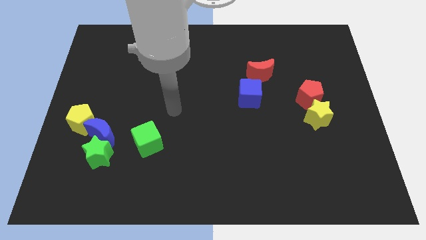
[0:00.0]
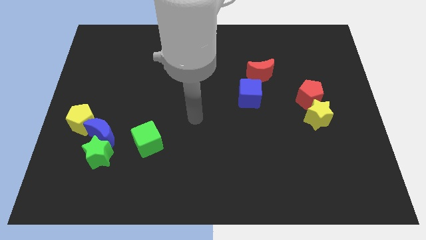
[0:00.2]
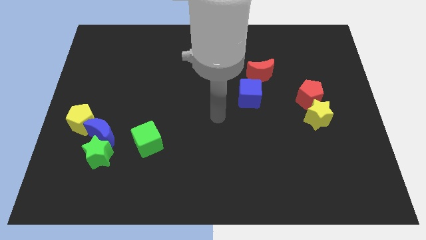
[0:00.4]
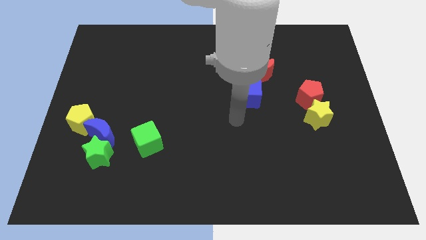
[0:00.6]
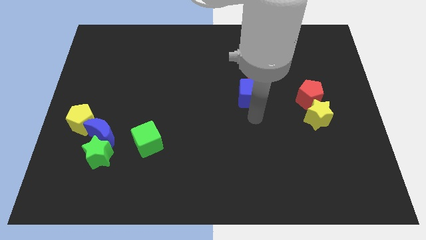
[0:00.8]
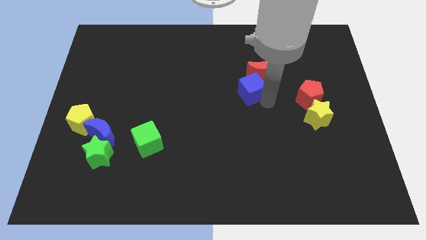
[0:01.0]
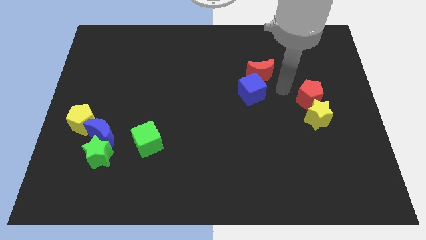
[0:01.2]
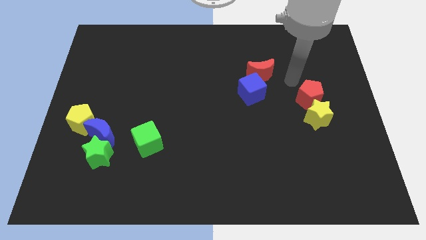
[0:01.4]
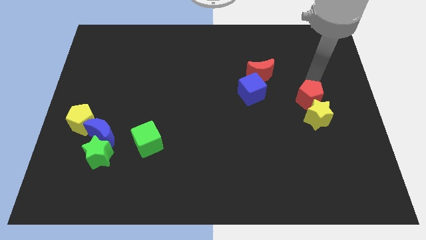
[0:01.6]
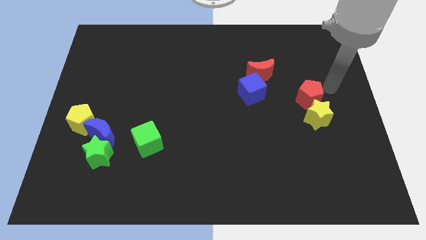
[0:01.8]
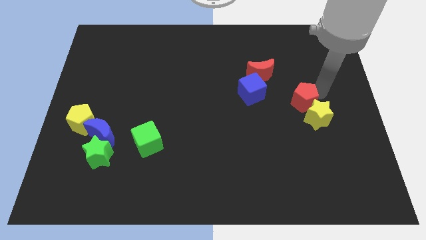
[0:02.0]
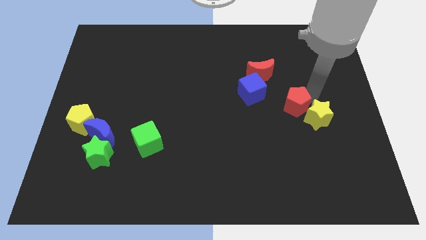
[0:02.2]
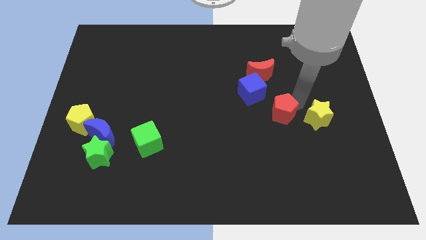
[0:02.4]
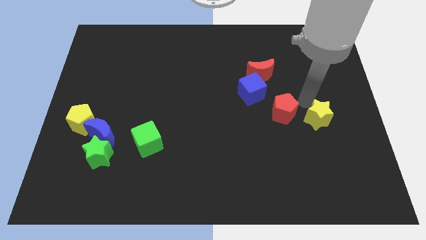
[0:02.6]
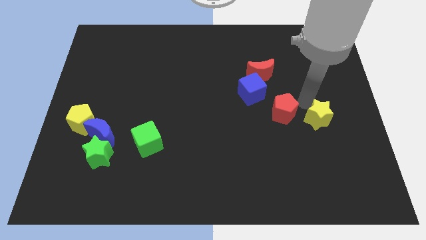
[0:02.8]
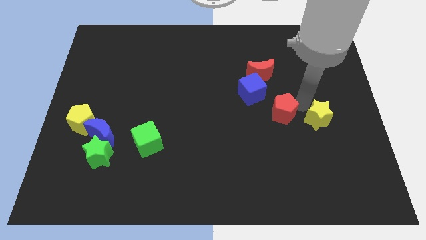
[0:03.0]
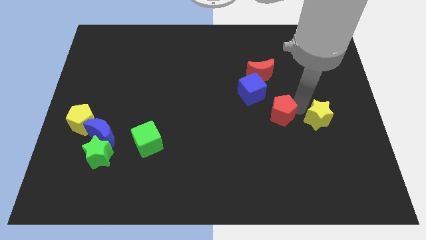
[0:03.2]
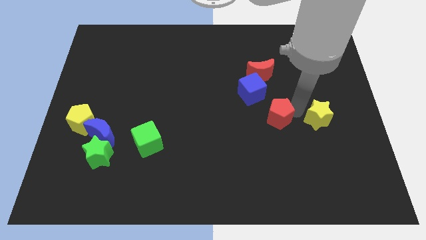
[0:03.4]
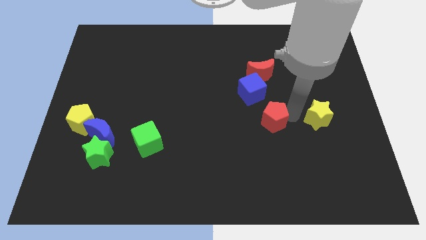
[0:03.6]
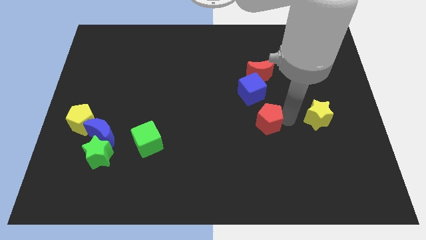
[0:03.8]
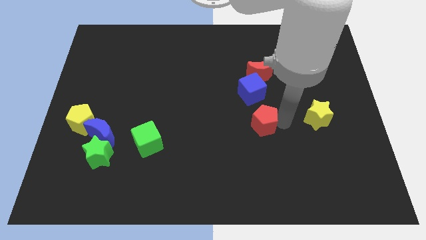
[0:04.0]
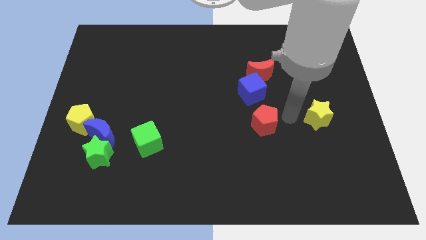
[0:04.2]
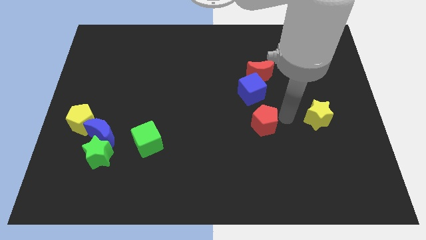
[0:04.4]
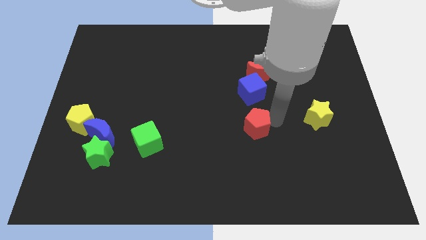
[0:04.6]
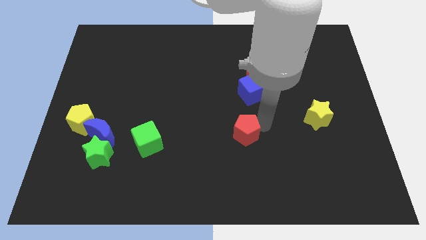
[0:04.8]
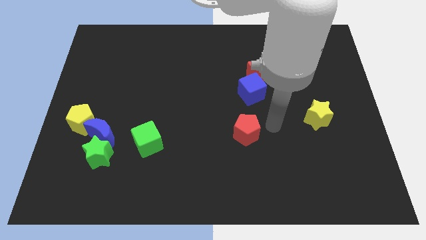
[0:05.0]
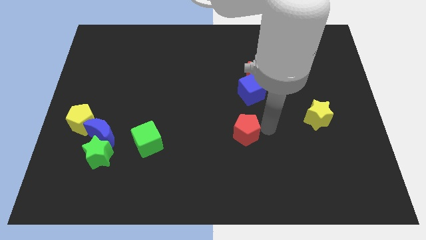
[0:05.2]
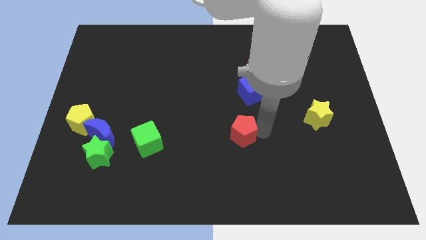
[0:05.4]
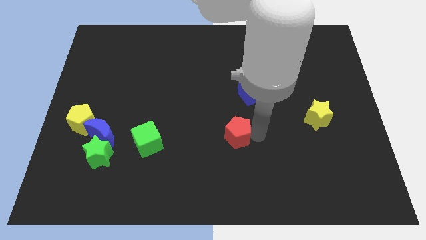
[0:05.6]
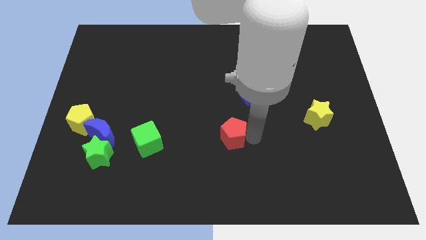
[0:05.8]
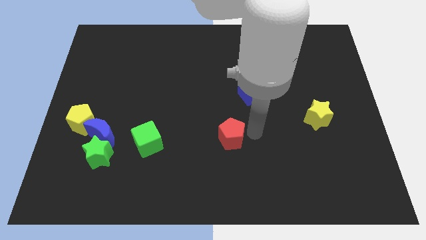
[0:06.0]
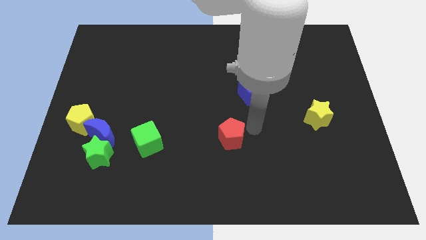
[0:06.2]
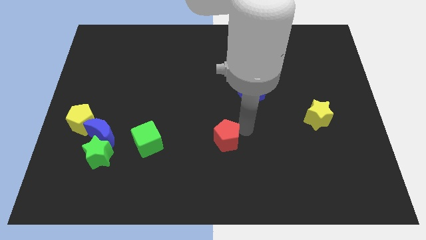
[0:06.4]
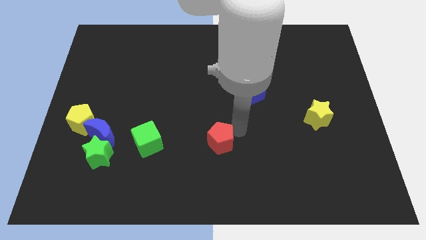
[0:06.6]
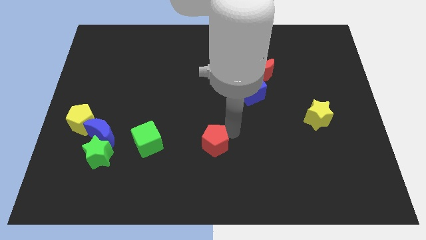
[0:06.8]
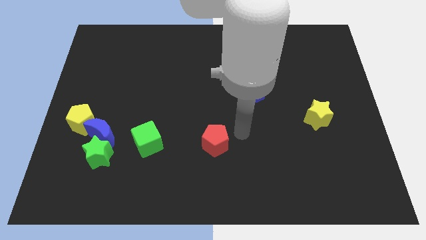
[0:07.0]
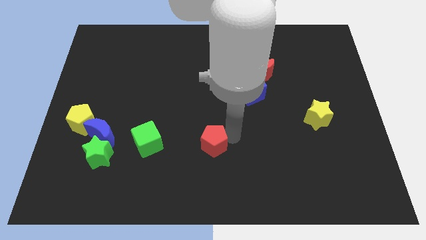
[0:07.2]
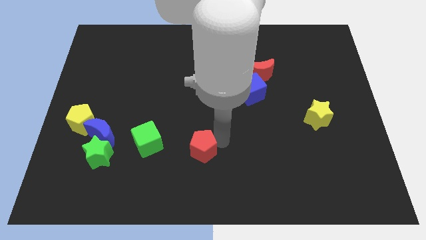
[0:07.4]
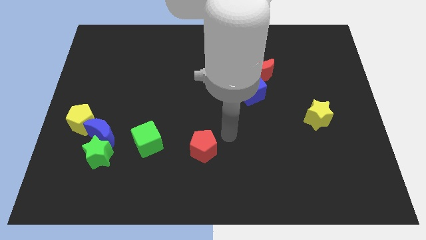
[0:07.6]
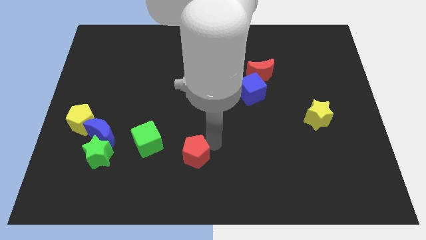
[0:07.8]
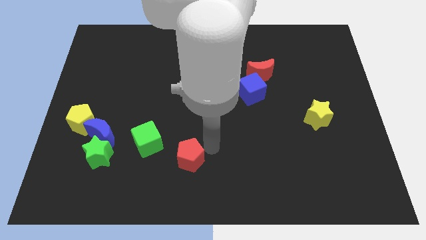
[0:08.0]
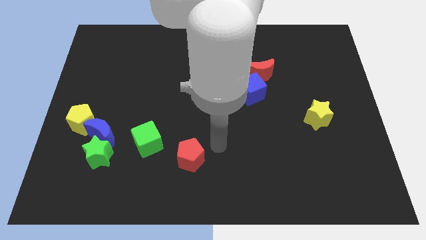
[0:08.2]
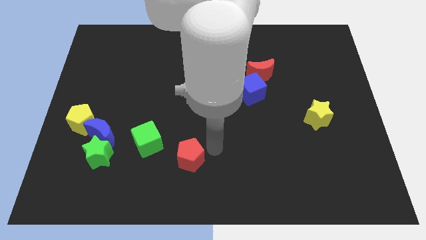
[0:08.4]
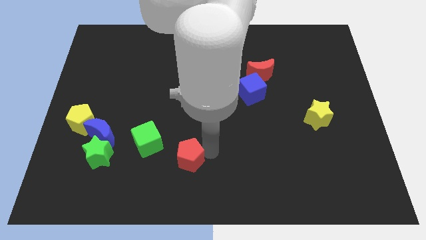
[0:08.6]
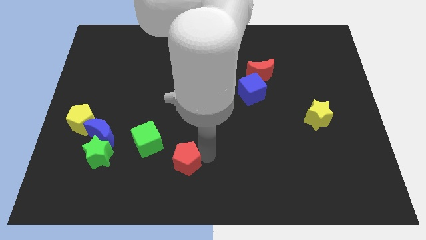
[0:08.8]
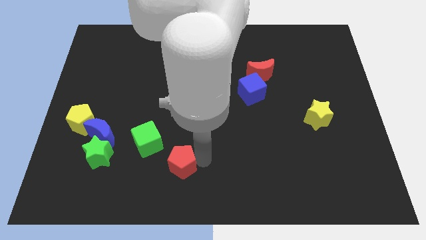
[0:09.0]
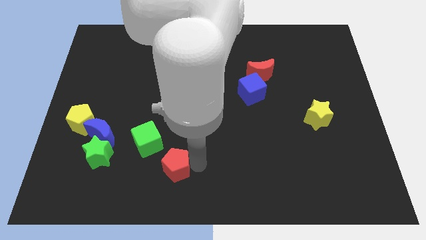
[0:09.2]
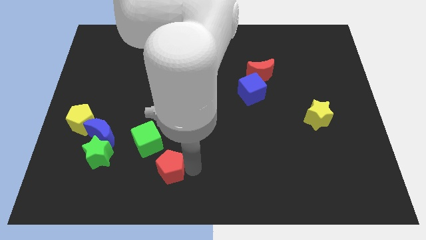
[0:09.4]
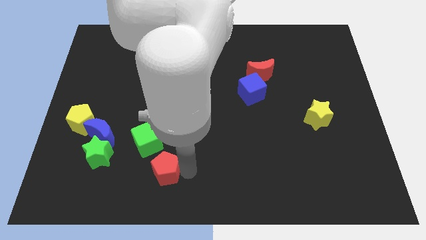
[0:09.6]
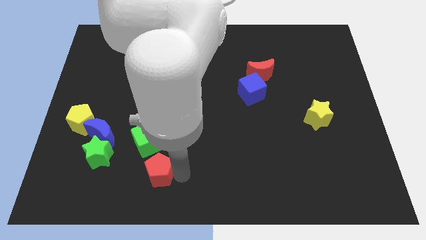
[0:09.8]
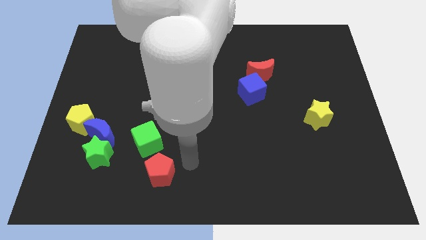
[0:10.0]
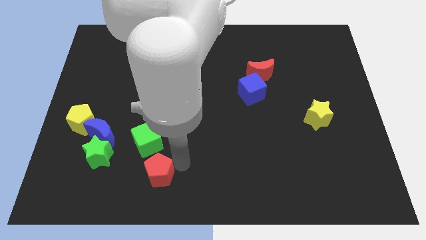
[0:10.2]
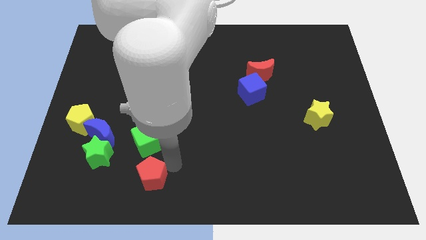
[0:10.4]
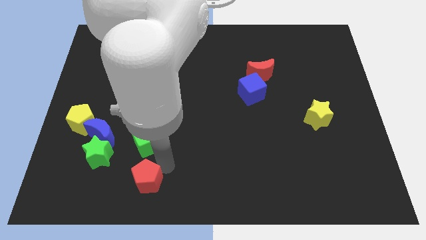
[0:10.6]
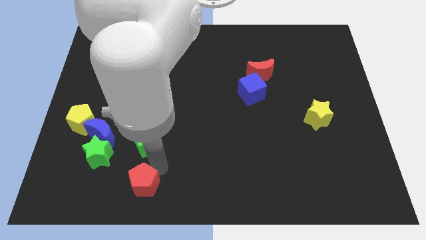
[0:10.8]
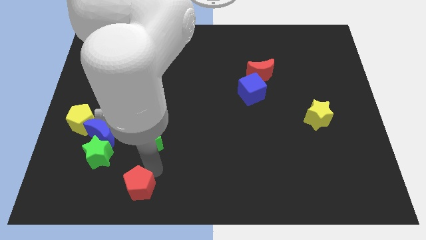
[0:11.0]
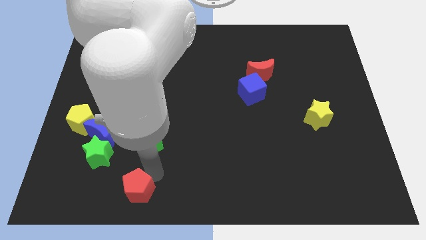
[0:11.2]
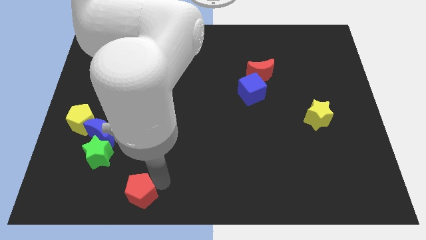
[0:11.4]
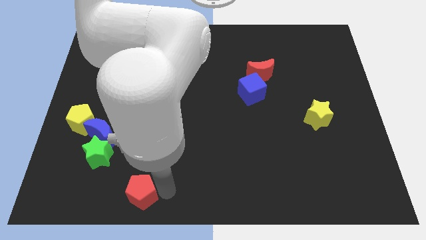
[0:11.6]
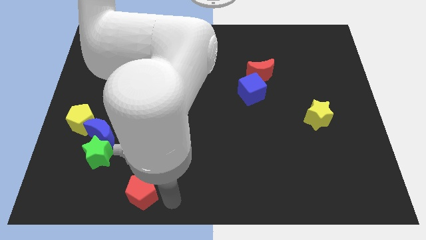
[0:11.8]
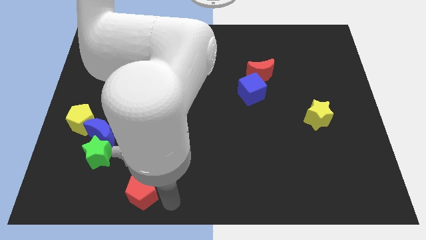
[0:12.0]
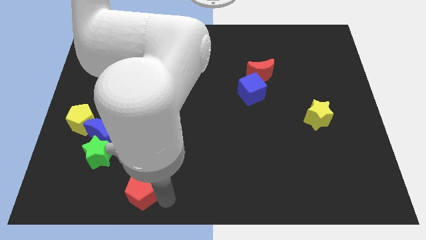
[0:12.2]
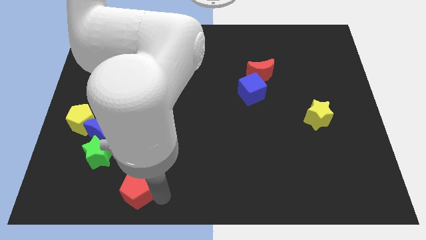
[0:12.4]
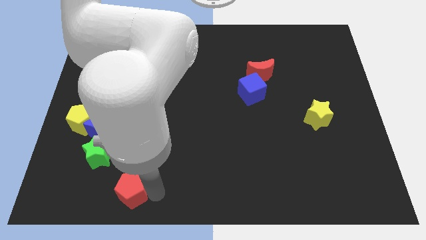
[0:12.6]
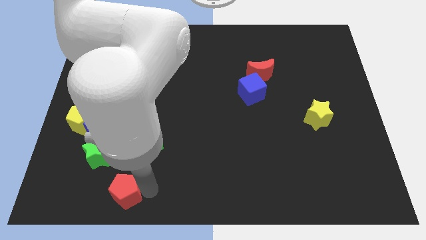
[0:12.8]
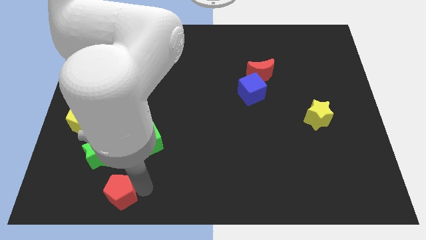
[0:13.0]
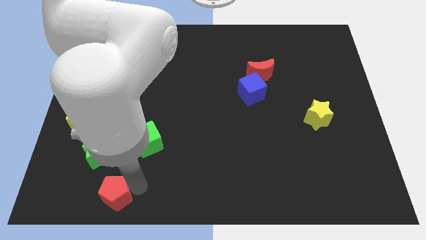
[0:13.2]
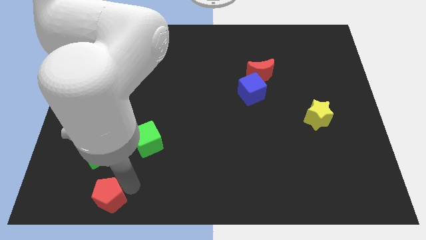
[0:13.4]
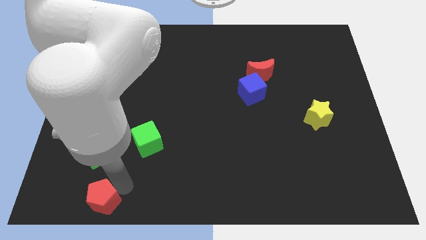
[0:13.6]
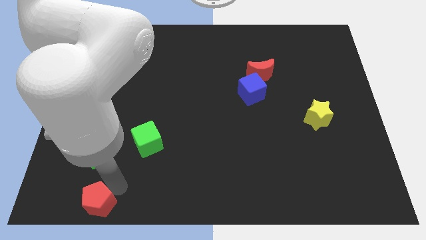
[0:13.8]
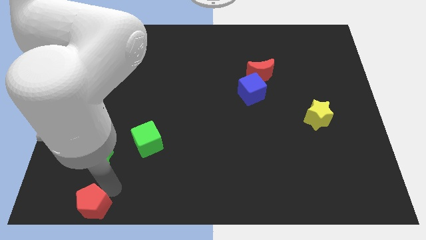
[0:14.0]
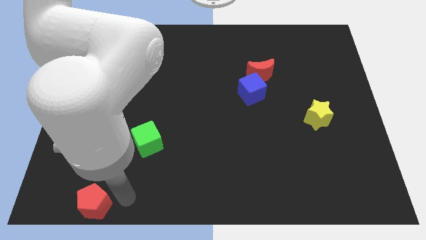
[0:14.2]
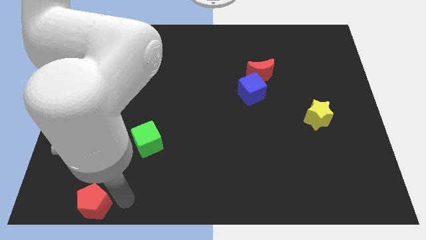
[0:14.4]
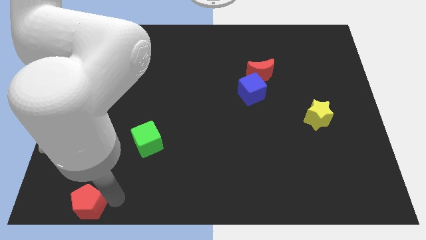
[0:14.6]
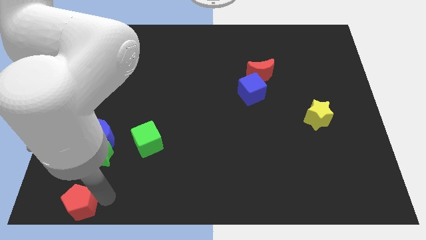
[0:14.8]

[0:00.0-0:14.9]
slide the red pentagon to the bottom left of the board

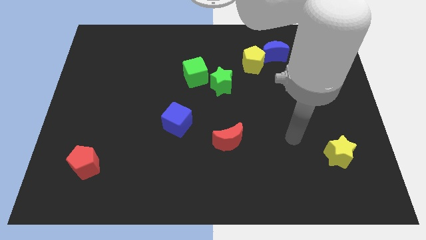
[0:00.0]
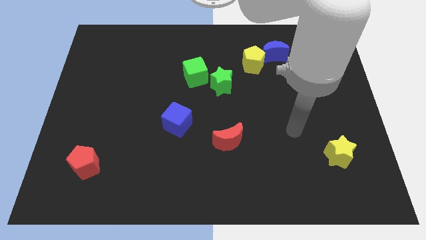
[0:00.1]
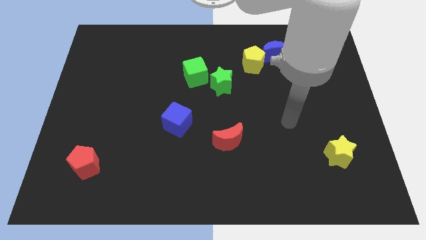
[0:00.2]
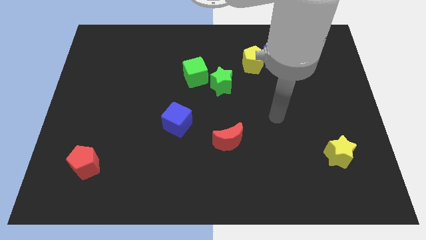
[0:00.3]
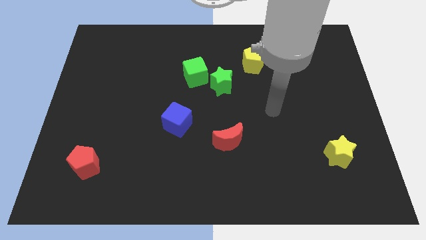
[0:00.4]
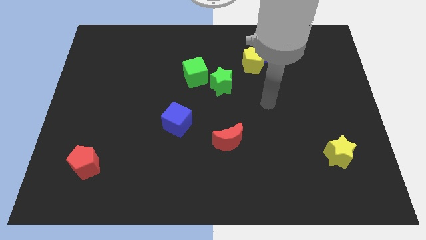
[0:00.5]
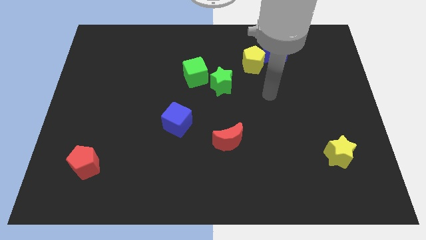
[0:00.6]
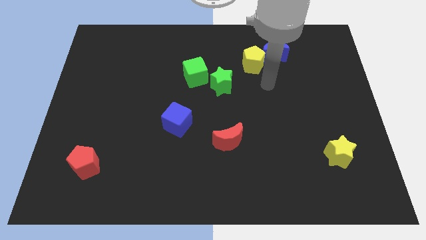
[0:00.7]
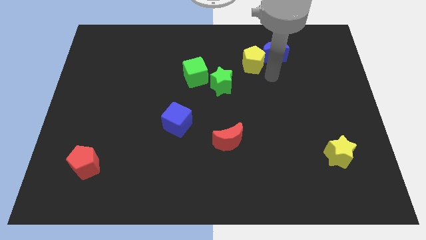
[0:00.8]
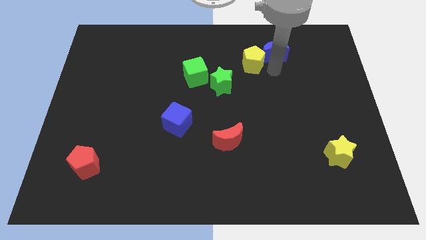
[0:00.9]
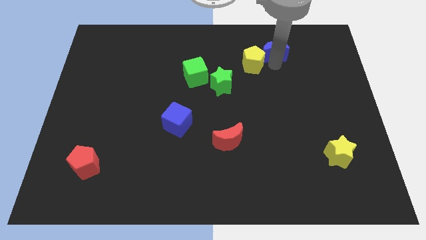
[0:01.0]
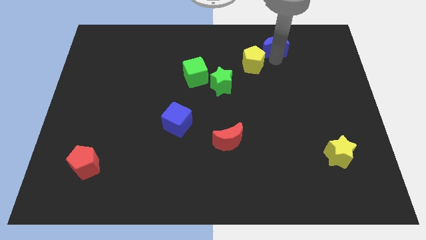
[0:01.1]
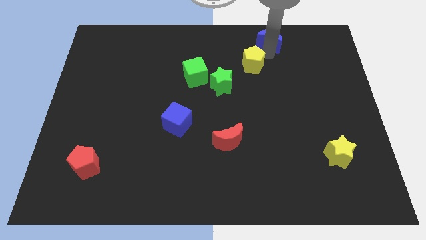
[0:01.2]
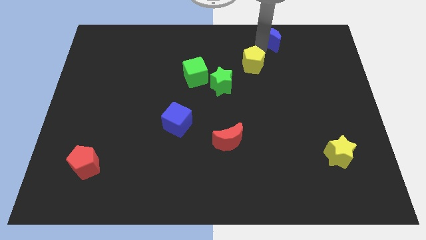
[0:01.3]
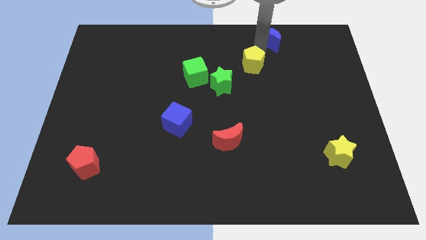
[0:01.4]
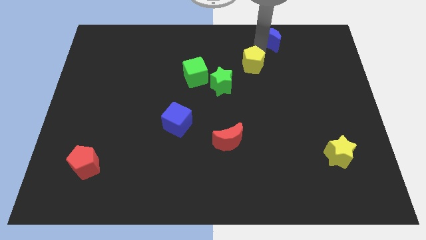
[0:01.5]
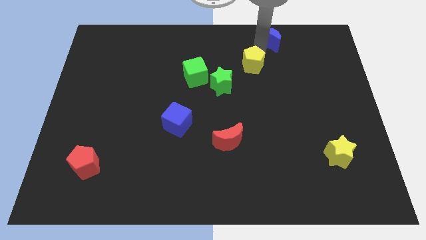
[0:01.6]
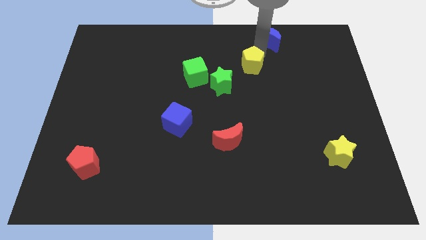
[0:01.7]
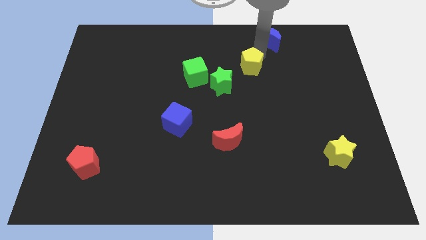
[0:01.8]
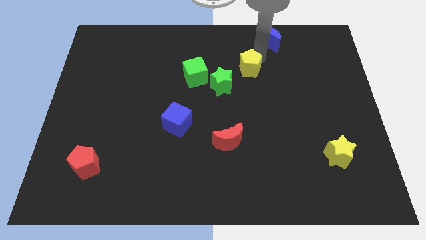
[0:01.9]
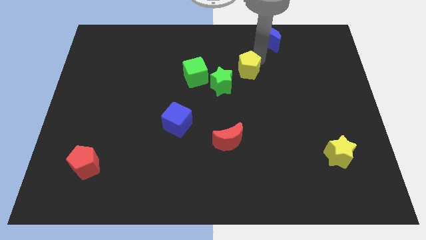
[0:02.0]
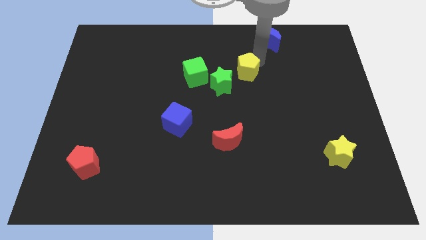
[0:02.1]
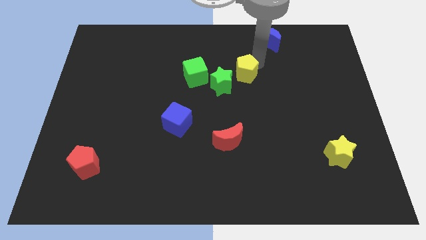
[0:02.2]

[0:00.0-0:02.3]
move the yellow pentagon to the middle of the board
